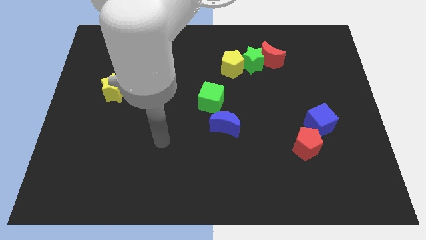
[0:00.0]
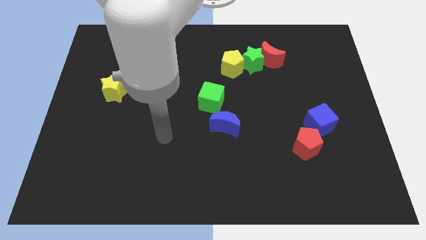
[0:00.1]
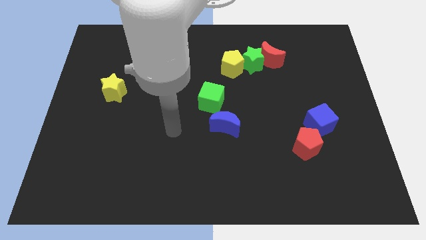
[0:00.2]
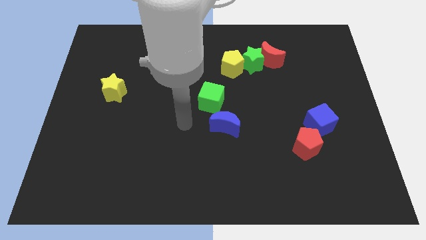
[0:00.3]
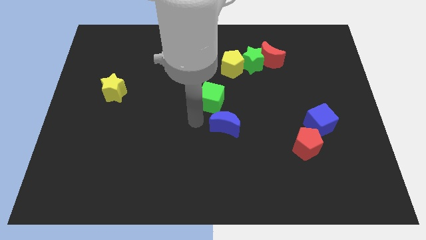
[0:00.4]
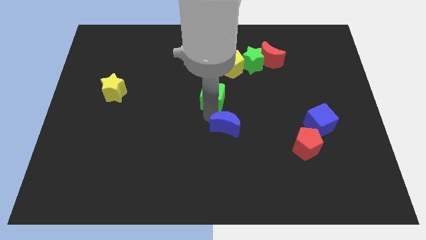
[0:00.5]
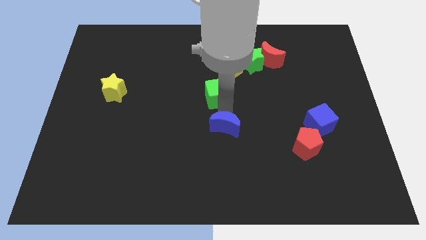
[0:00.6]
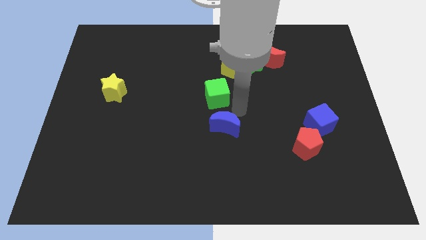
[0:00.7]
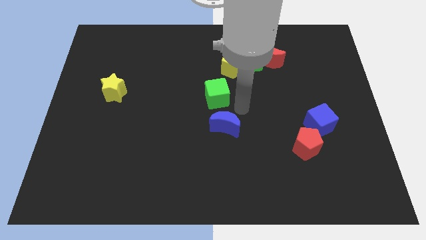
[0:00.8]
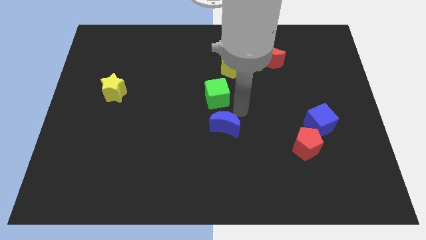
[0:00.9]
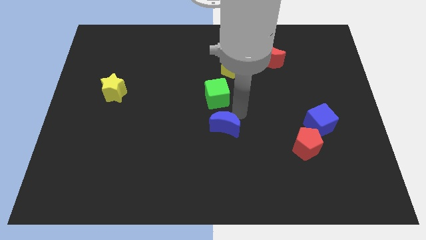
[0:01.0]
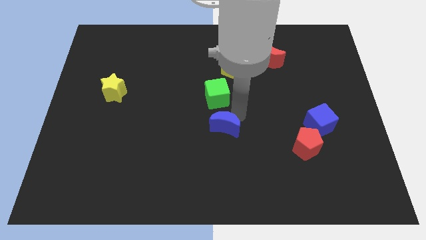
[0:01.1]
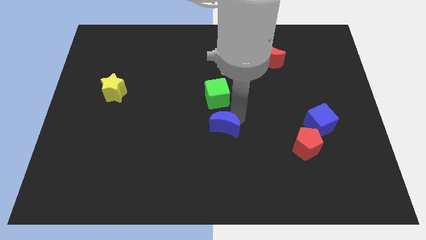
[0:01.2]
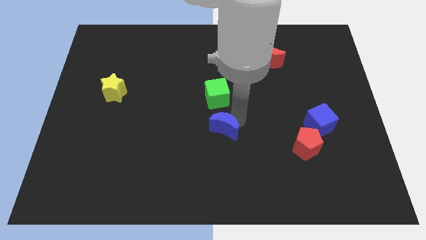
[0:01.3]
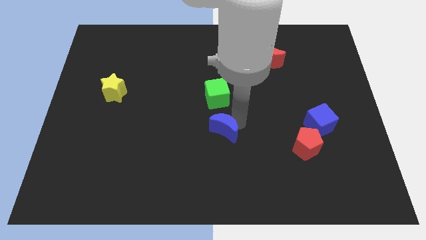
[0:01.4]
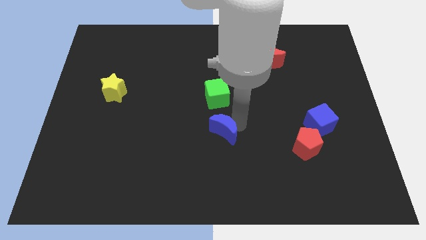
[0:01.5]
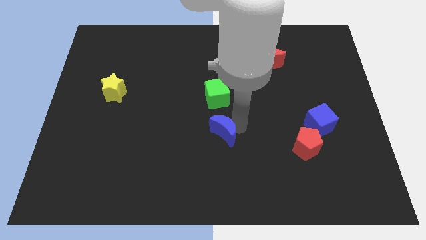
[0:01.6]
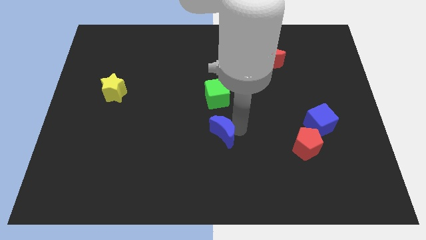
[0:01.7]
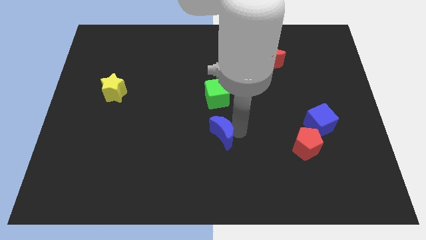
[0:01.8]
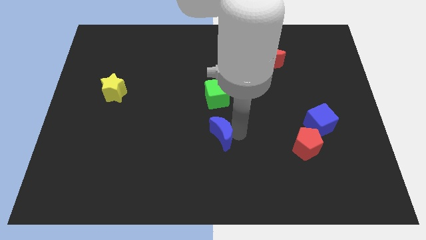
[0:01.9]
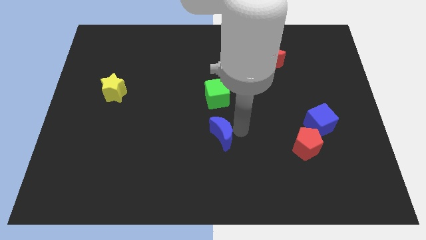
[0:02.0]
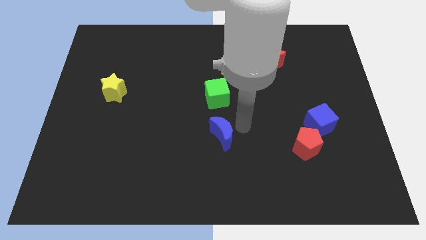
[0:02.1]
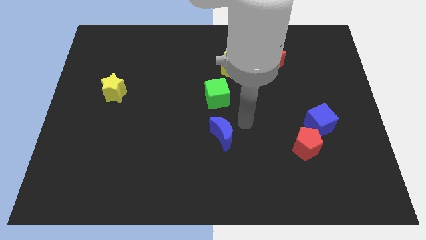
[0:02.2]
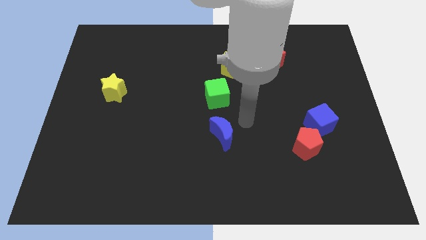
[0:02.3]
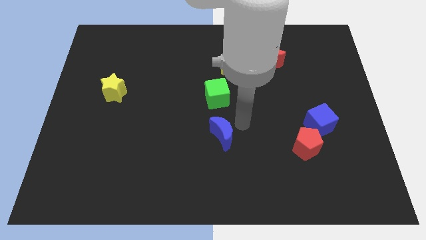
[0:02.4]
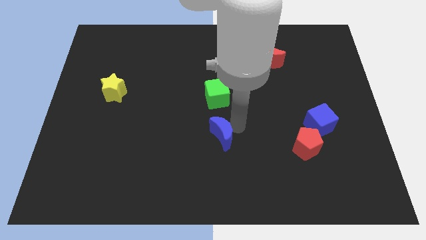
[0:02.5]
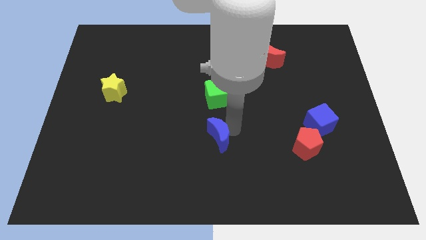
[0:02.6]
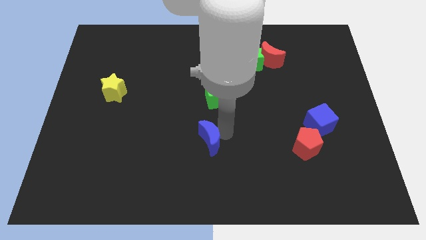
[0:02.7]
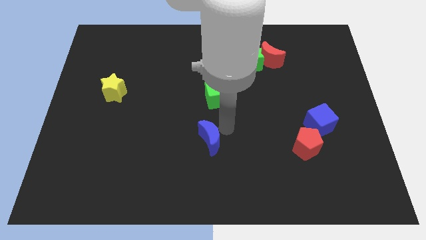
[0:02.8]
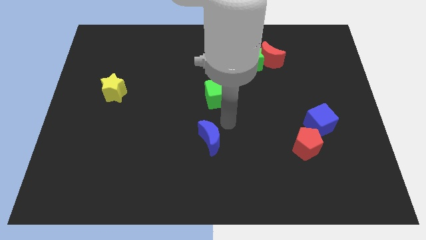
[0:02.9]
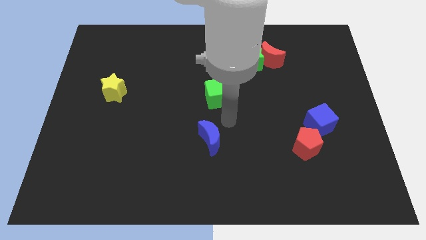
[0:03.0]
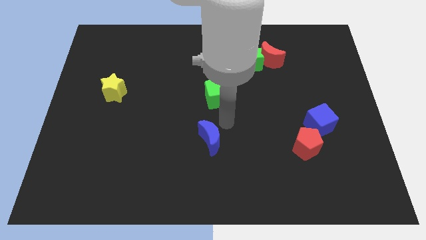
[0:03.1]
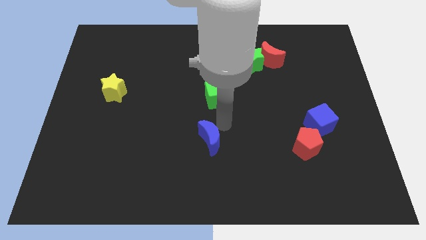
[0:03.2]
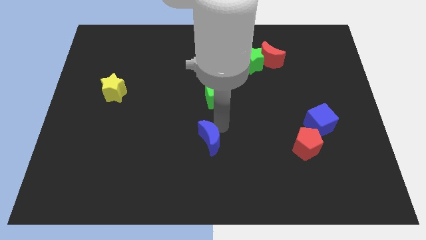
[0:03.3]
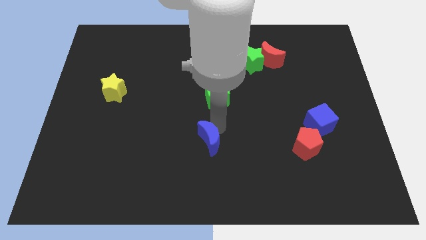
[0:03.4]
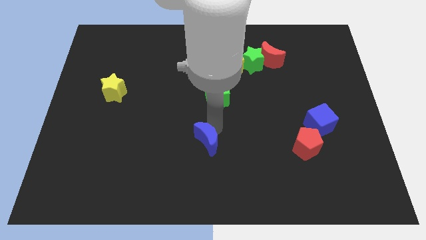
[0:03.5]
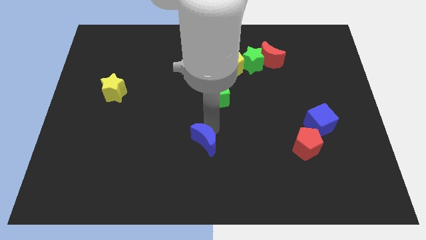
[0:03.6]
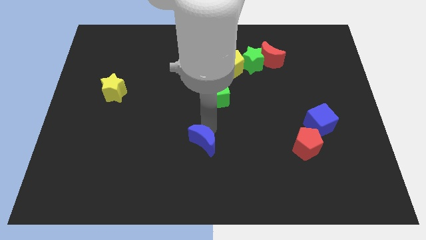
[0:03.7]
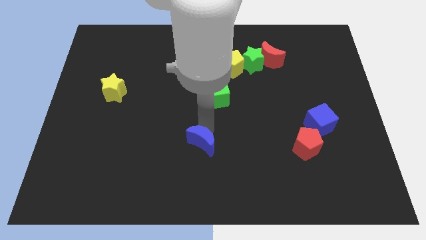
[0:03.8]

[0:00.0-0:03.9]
move the blue moon down and left diagonally a bit

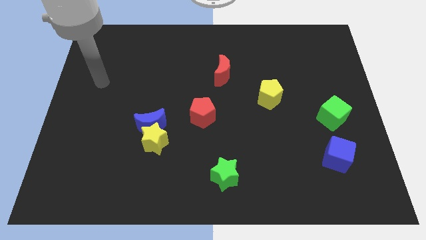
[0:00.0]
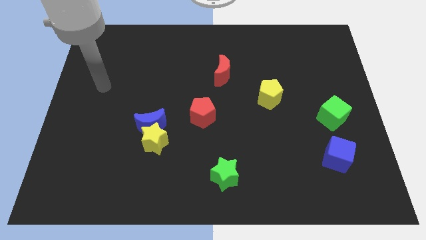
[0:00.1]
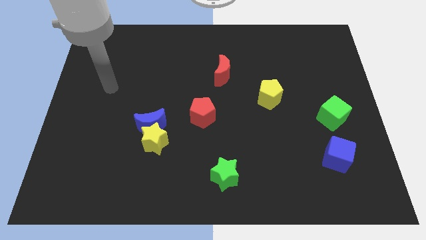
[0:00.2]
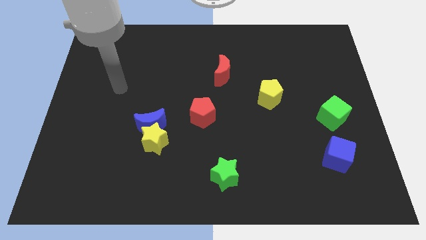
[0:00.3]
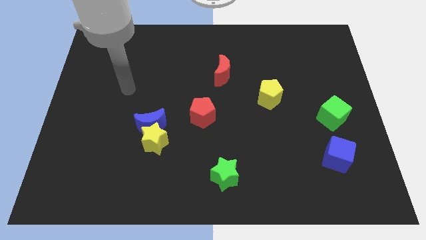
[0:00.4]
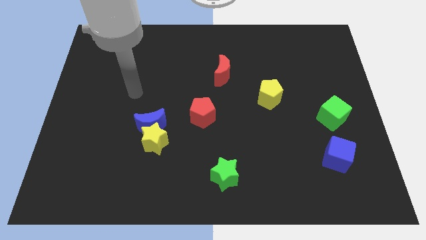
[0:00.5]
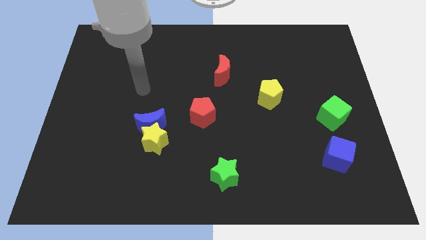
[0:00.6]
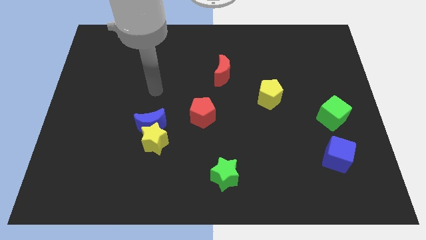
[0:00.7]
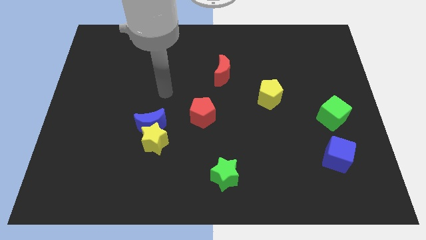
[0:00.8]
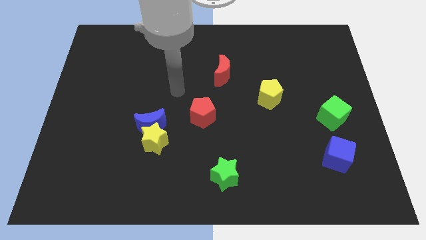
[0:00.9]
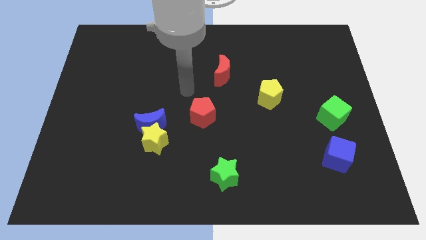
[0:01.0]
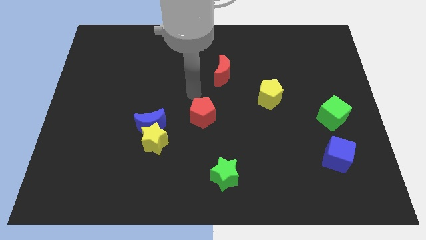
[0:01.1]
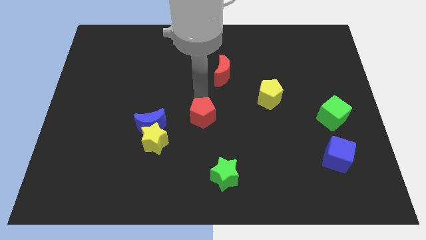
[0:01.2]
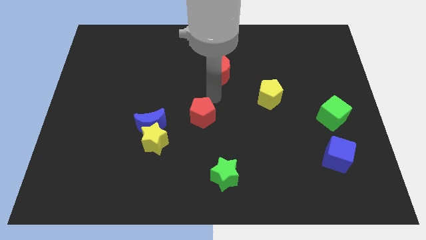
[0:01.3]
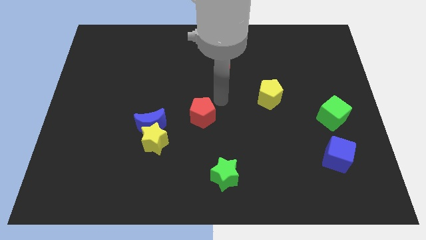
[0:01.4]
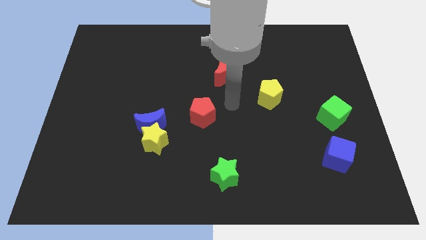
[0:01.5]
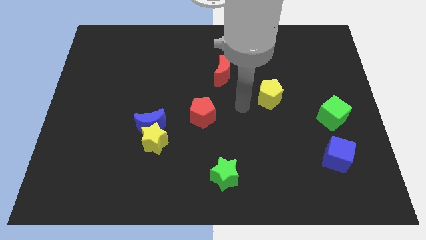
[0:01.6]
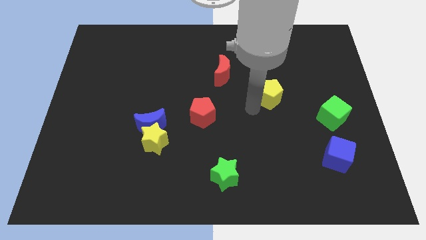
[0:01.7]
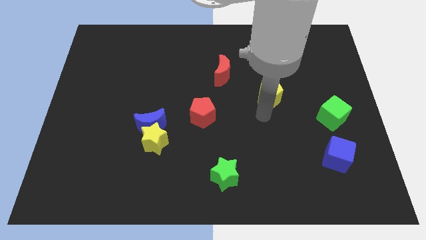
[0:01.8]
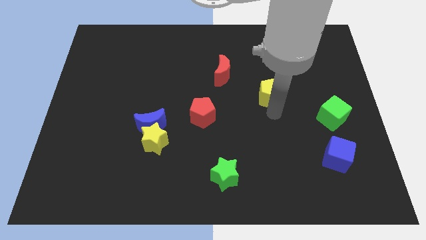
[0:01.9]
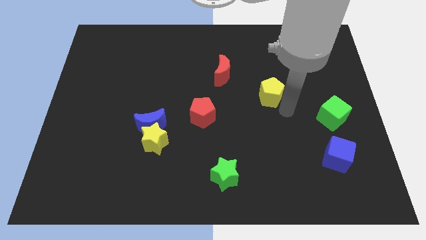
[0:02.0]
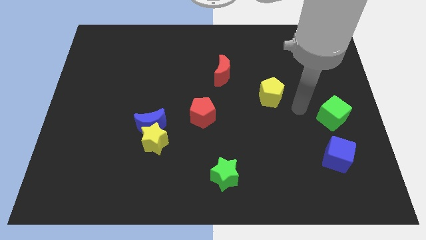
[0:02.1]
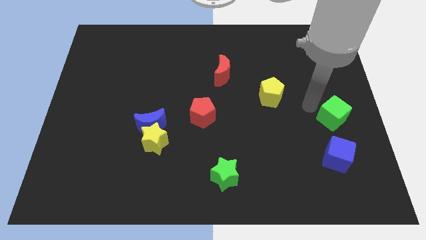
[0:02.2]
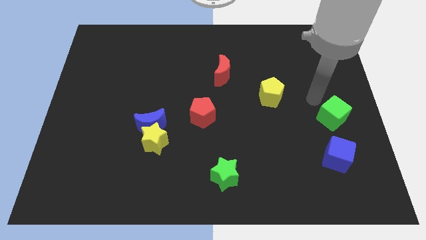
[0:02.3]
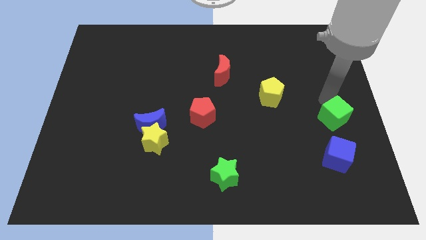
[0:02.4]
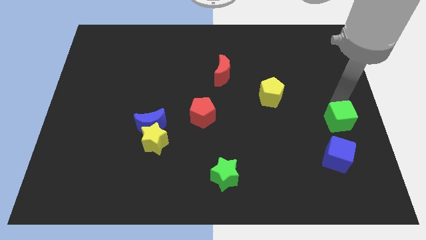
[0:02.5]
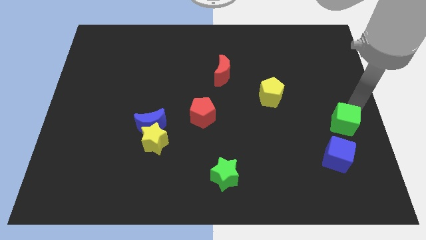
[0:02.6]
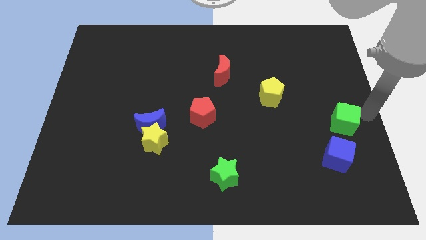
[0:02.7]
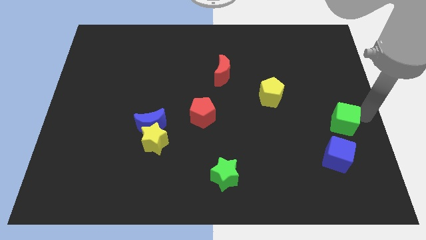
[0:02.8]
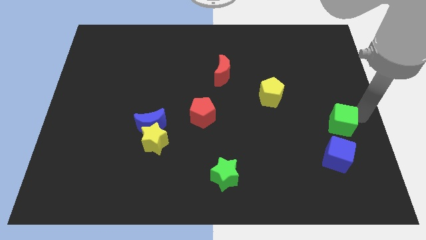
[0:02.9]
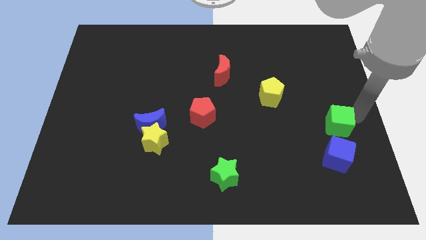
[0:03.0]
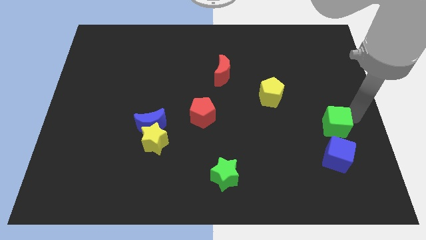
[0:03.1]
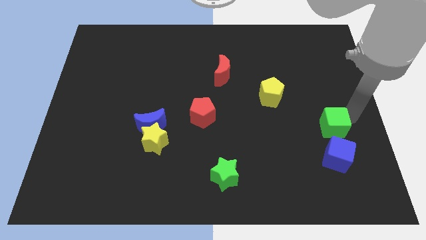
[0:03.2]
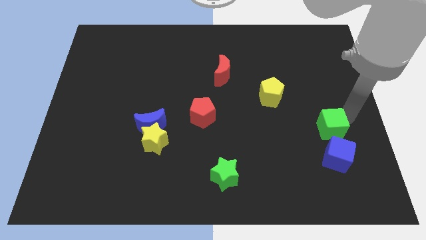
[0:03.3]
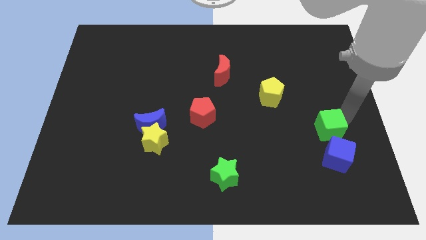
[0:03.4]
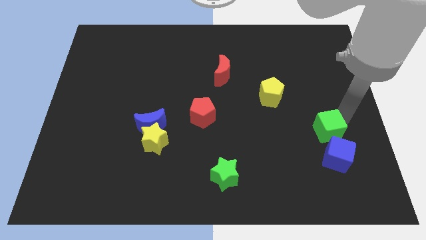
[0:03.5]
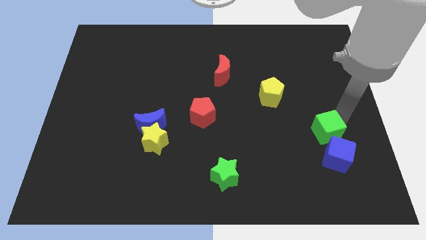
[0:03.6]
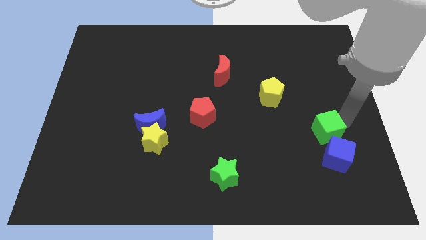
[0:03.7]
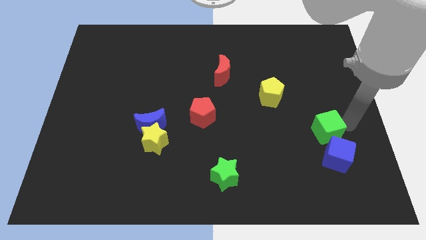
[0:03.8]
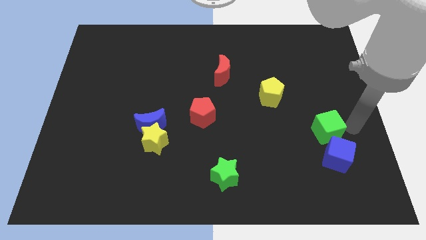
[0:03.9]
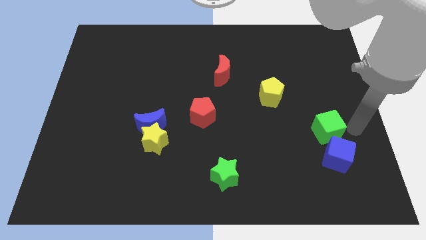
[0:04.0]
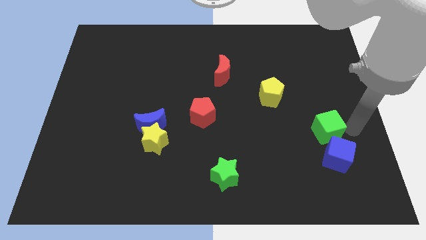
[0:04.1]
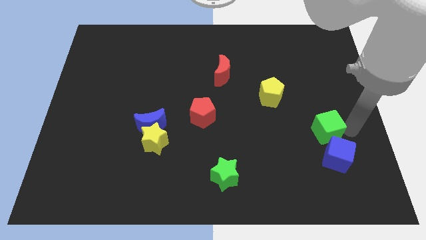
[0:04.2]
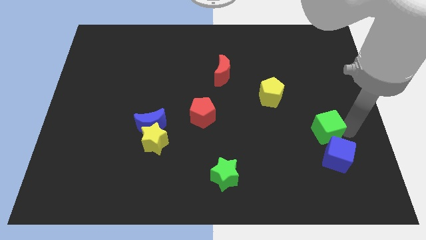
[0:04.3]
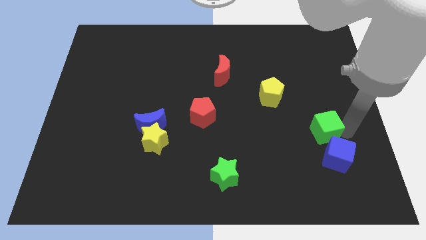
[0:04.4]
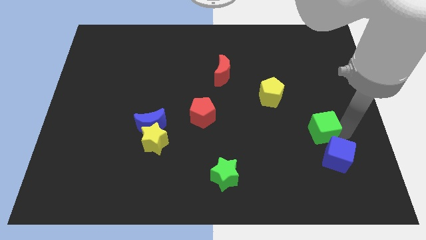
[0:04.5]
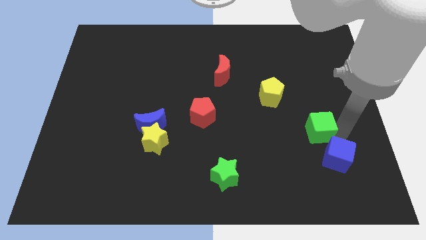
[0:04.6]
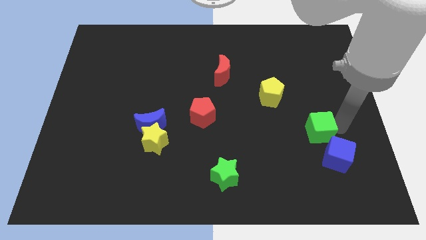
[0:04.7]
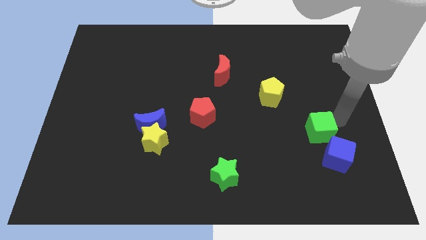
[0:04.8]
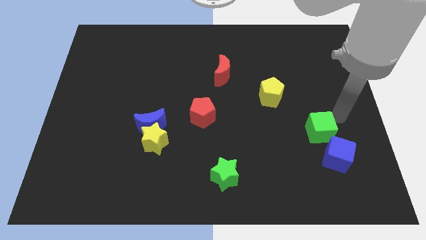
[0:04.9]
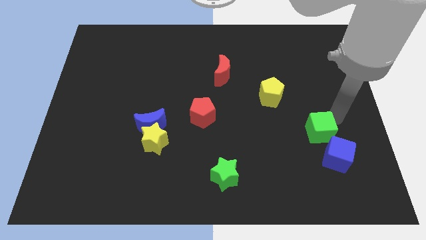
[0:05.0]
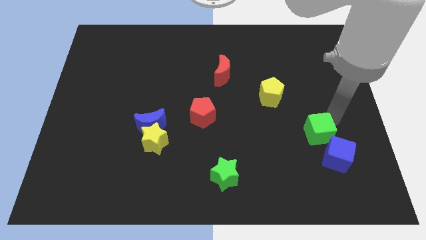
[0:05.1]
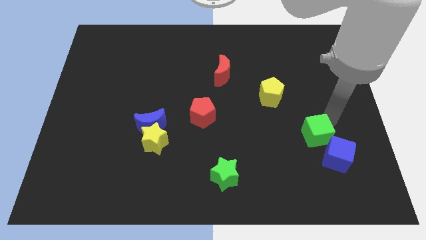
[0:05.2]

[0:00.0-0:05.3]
push the green cube somewhat down and left diagonally
